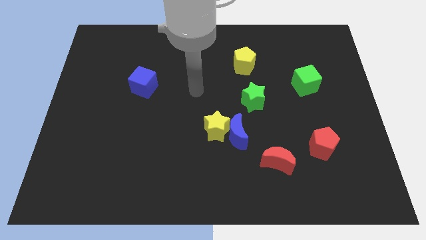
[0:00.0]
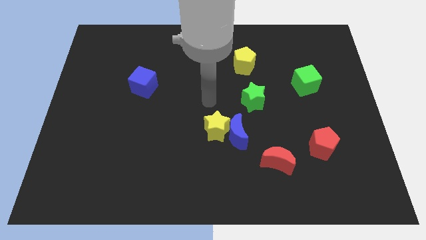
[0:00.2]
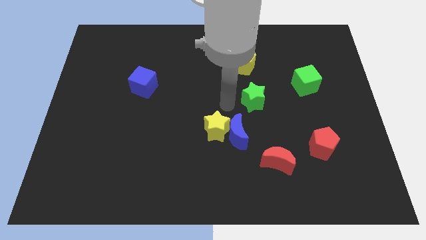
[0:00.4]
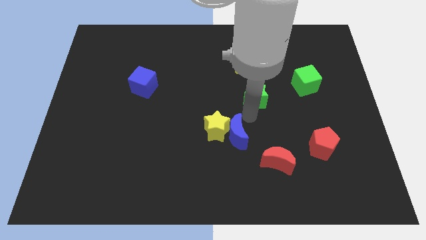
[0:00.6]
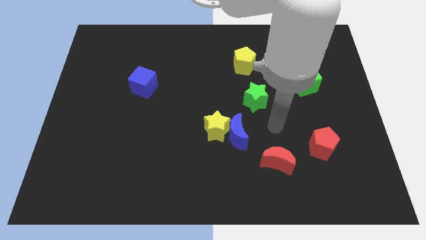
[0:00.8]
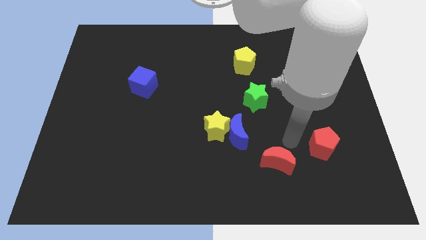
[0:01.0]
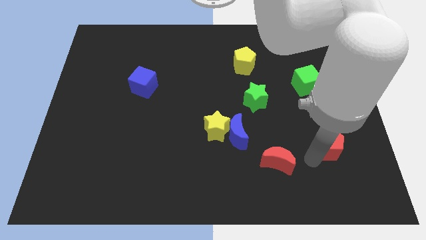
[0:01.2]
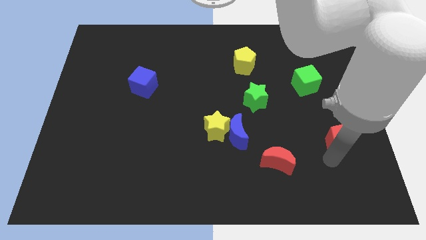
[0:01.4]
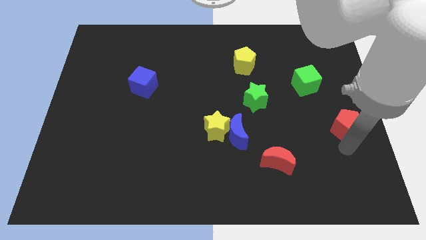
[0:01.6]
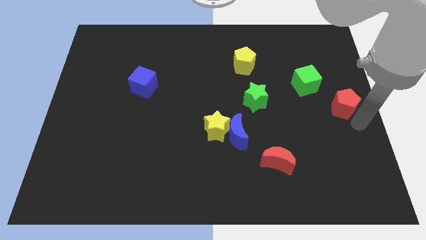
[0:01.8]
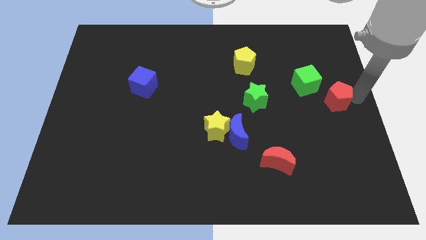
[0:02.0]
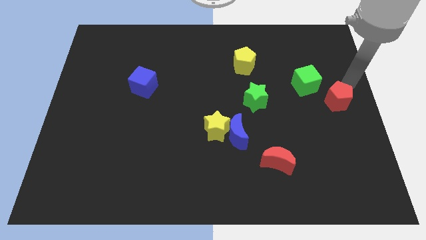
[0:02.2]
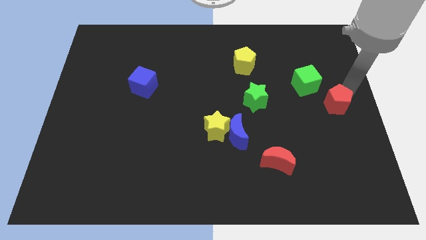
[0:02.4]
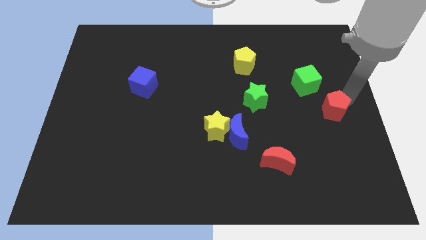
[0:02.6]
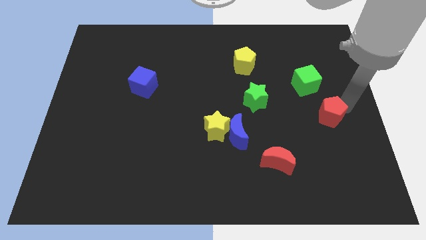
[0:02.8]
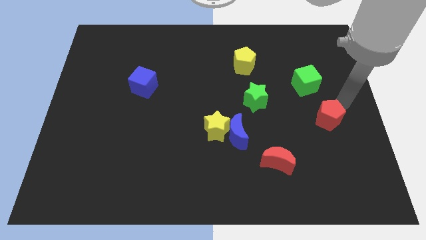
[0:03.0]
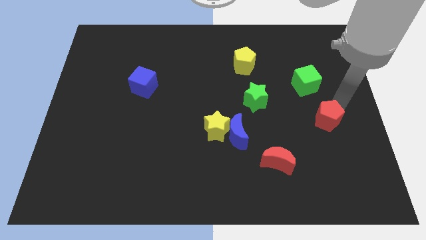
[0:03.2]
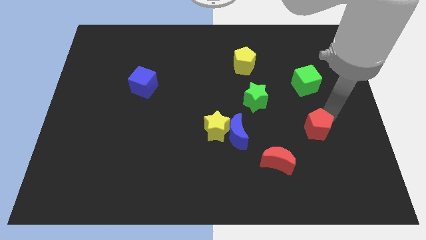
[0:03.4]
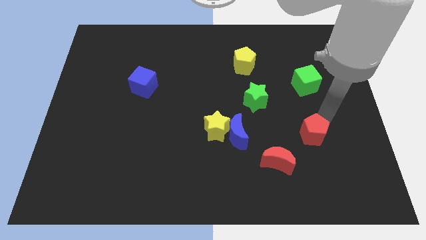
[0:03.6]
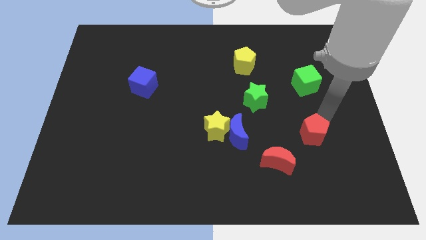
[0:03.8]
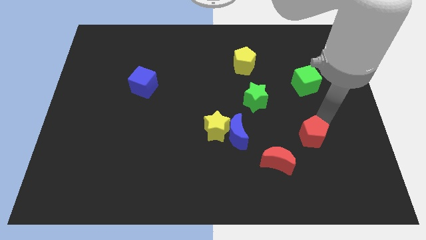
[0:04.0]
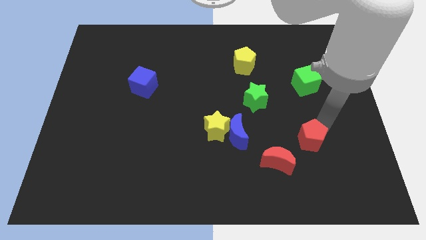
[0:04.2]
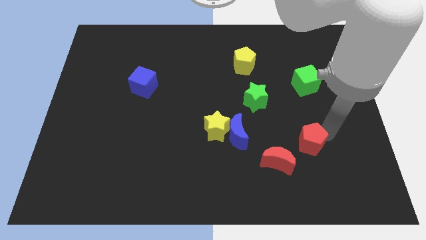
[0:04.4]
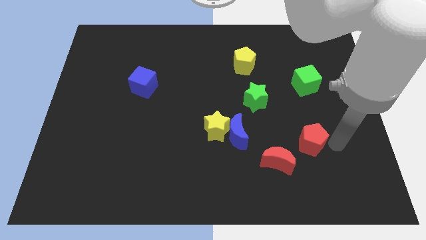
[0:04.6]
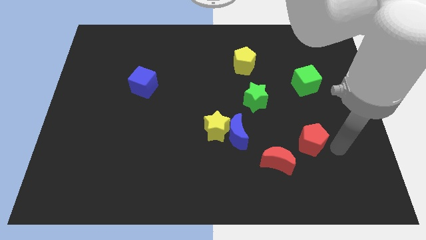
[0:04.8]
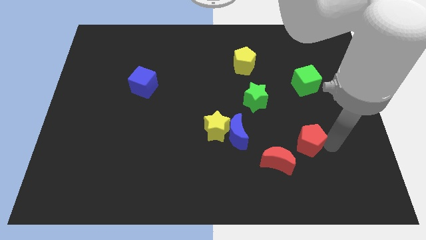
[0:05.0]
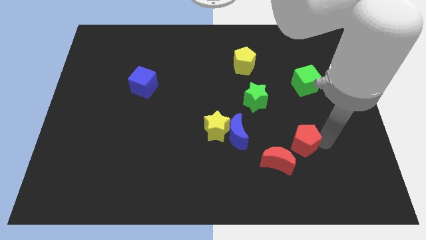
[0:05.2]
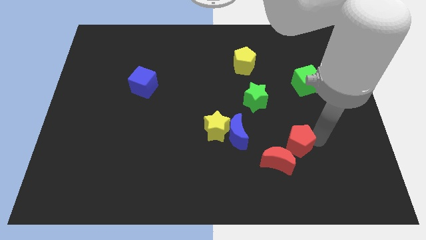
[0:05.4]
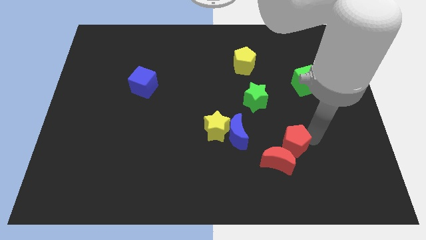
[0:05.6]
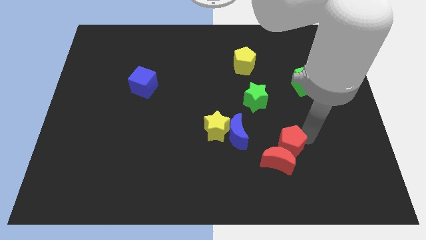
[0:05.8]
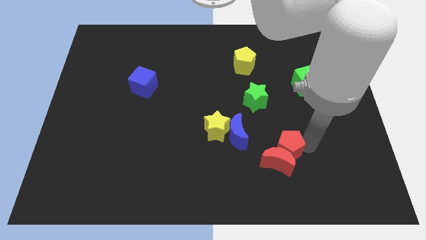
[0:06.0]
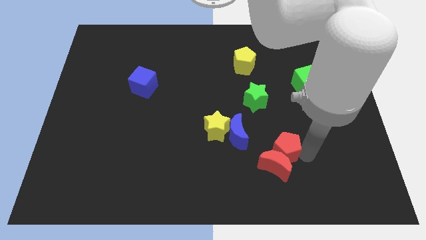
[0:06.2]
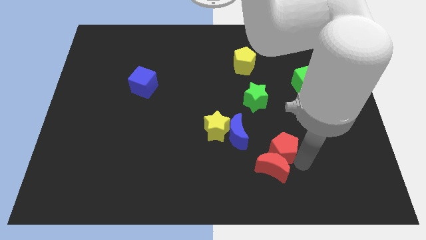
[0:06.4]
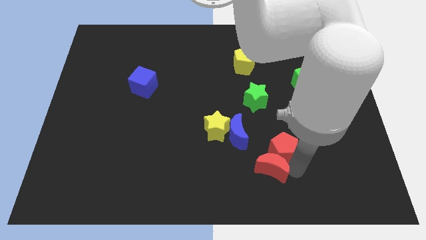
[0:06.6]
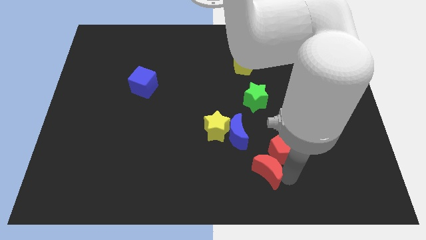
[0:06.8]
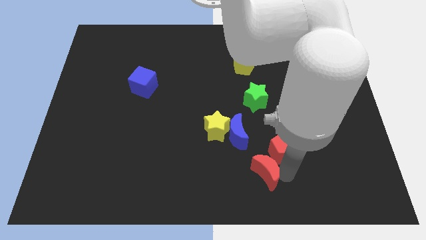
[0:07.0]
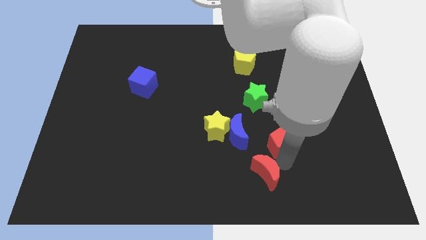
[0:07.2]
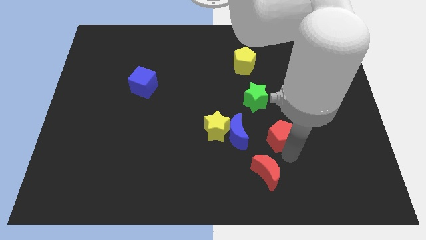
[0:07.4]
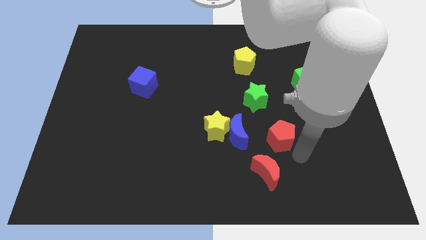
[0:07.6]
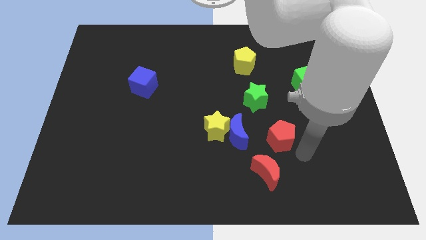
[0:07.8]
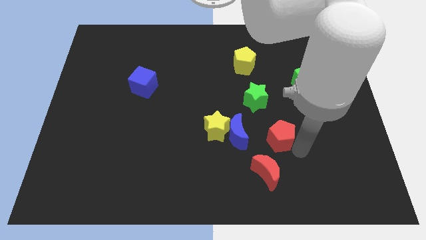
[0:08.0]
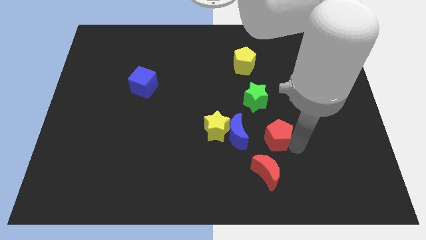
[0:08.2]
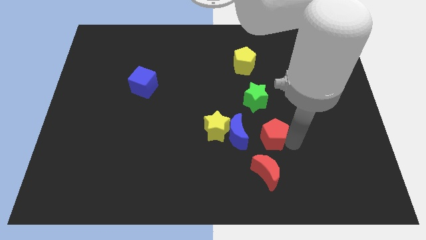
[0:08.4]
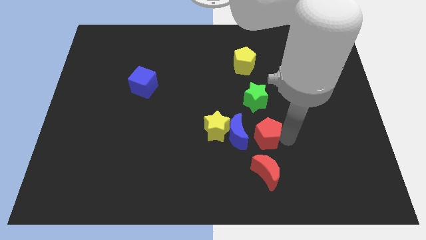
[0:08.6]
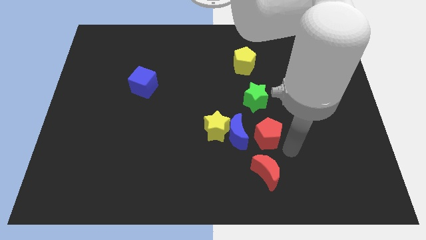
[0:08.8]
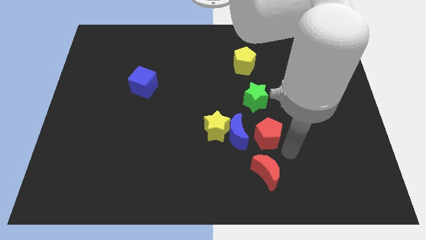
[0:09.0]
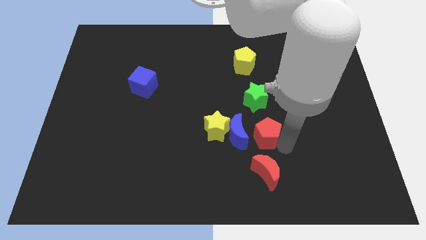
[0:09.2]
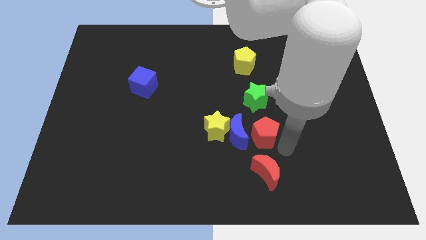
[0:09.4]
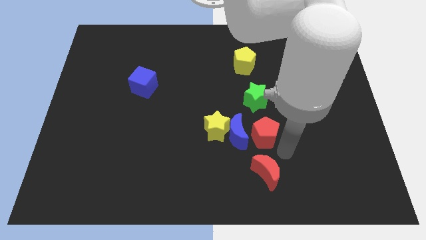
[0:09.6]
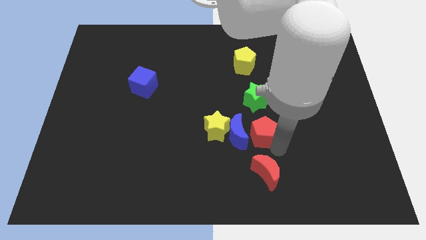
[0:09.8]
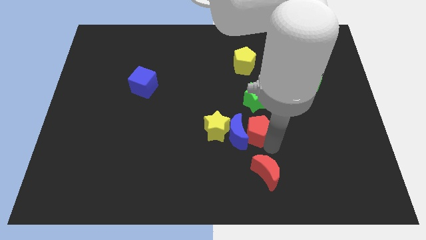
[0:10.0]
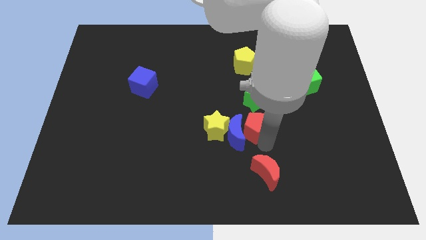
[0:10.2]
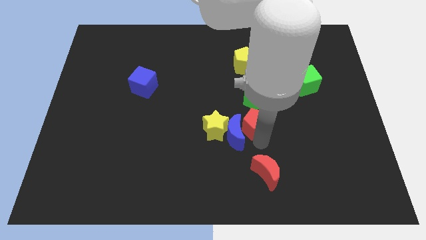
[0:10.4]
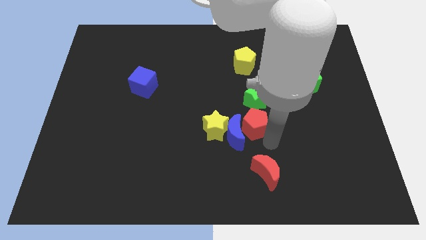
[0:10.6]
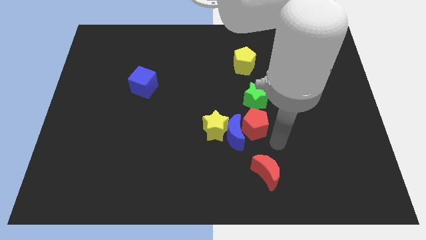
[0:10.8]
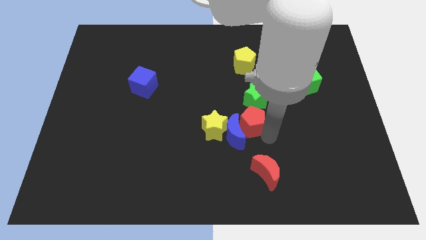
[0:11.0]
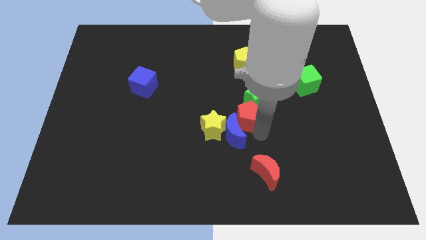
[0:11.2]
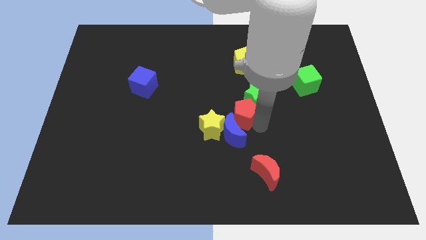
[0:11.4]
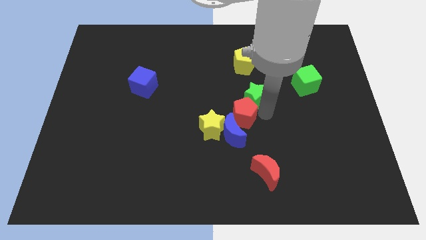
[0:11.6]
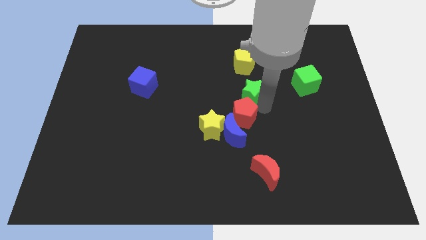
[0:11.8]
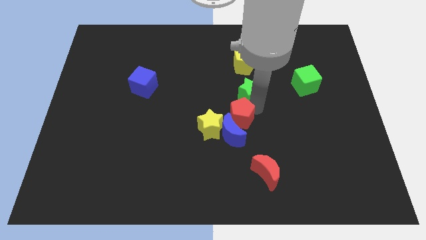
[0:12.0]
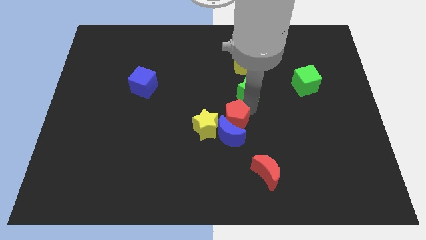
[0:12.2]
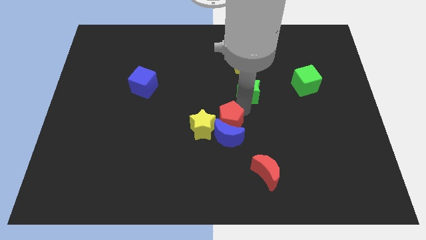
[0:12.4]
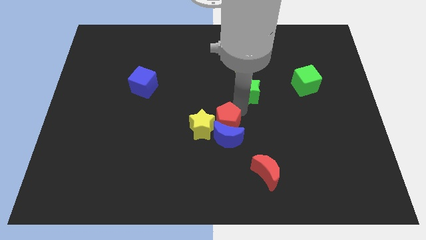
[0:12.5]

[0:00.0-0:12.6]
slide the red pentagon towards the yellow star

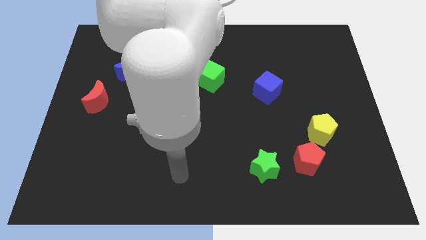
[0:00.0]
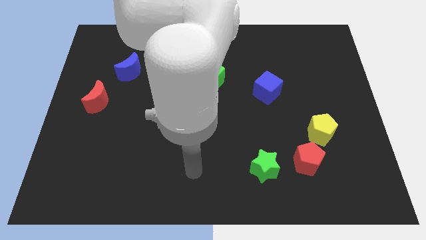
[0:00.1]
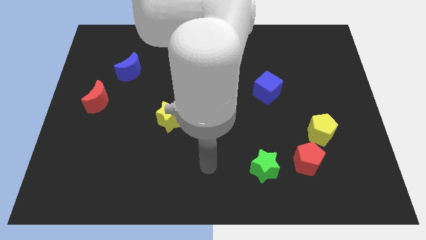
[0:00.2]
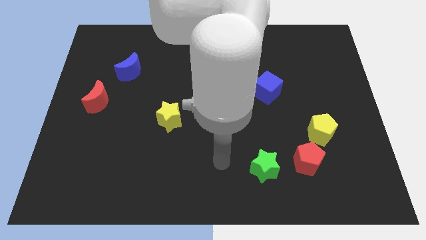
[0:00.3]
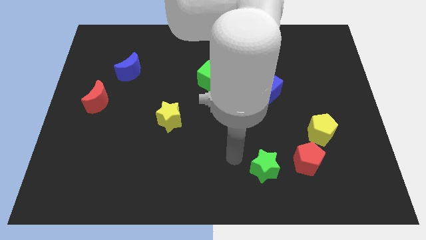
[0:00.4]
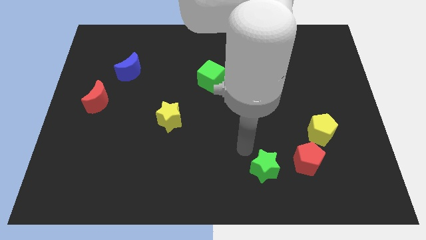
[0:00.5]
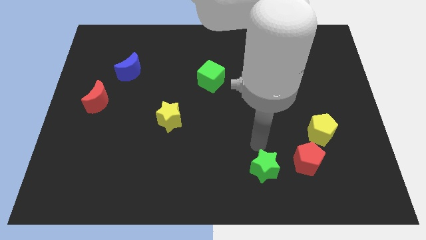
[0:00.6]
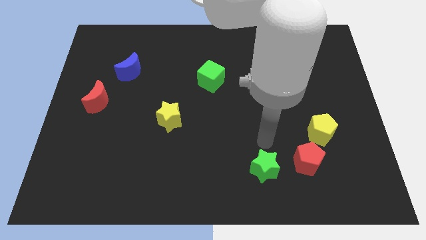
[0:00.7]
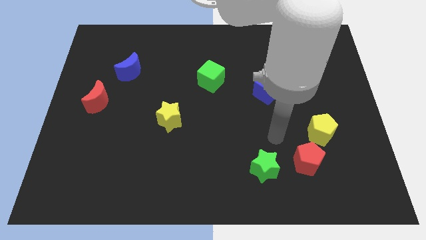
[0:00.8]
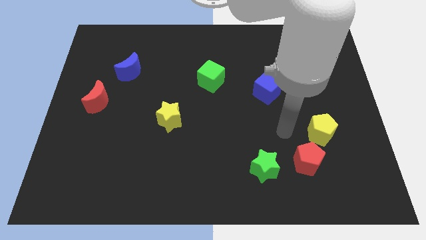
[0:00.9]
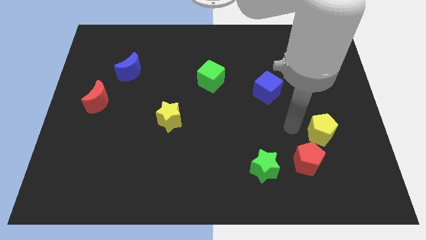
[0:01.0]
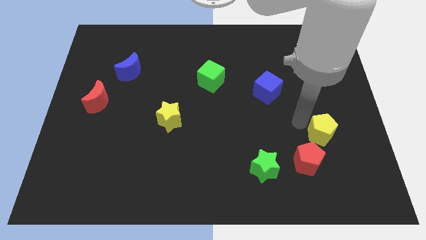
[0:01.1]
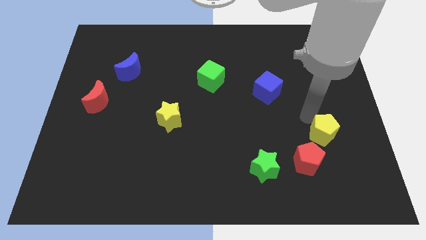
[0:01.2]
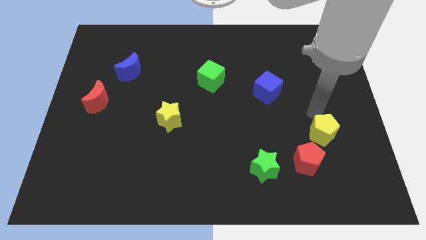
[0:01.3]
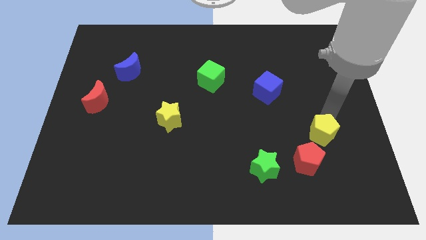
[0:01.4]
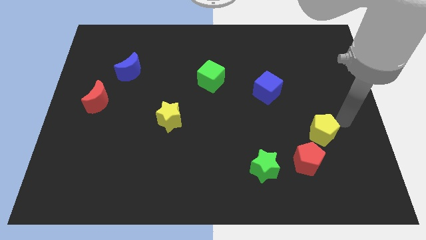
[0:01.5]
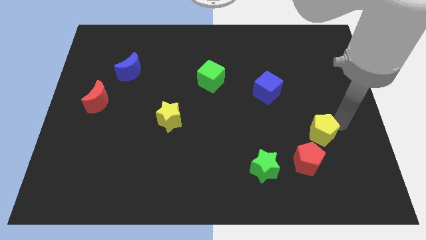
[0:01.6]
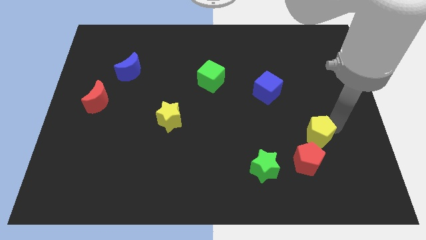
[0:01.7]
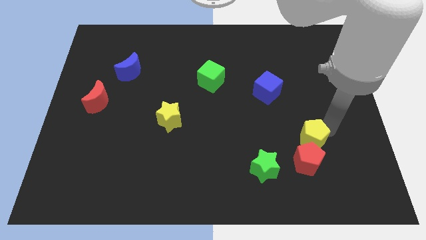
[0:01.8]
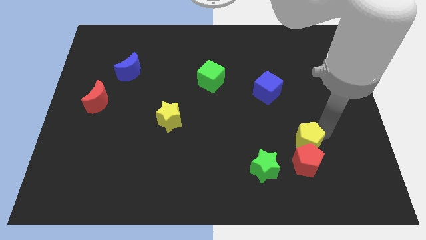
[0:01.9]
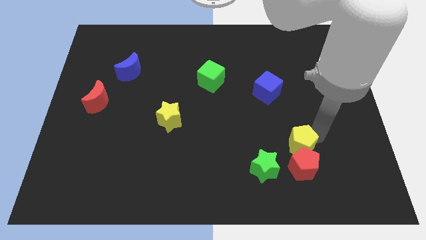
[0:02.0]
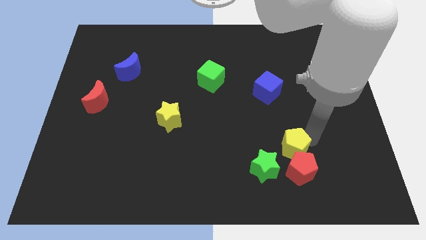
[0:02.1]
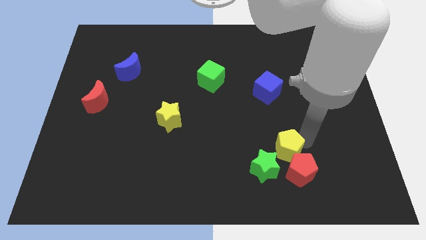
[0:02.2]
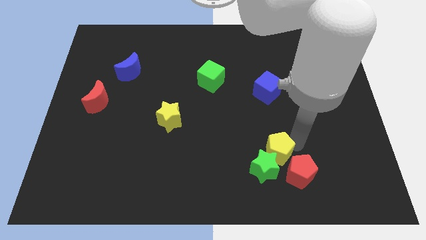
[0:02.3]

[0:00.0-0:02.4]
slide the yellow pentagon towards the green star
